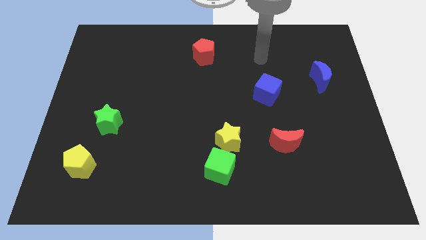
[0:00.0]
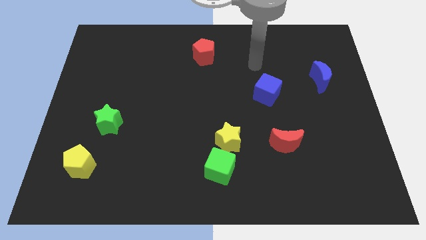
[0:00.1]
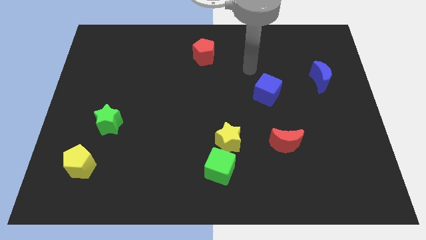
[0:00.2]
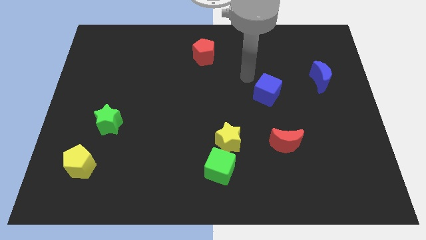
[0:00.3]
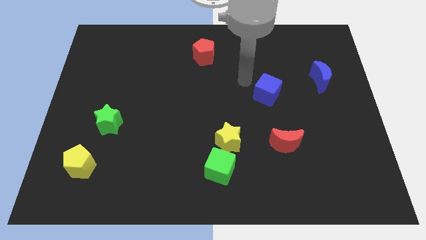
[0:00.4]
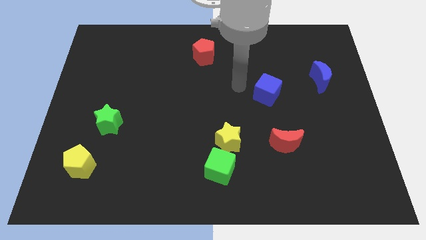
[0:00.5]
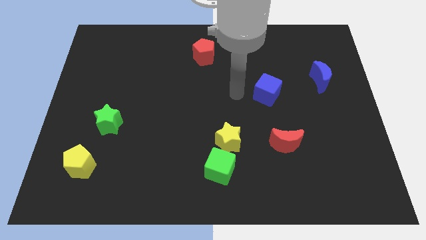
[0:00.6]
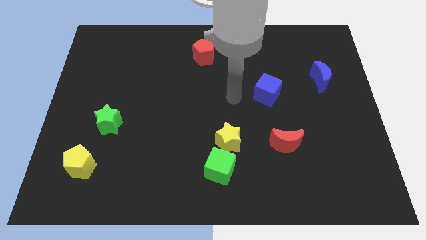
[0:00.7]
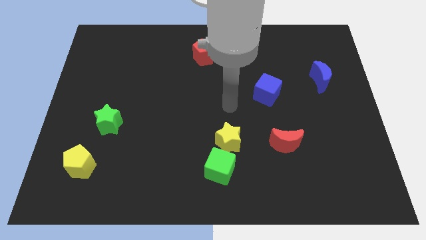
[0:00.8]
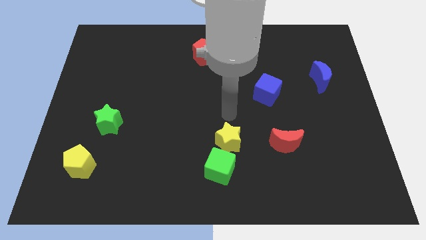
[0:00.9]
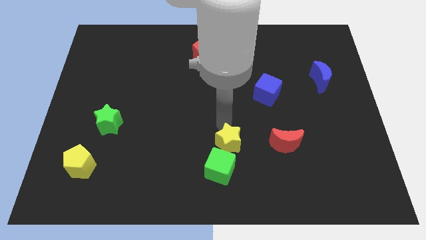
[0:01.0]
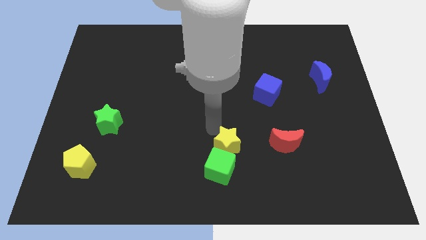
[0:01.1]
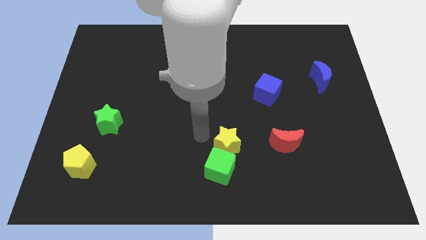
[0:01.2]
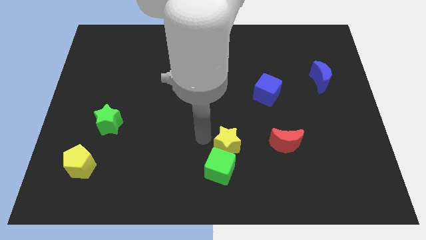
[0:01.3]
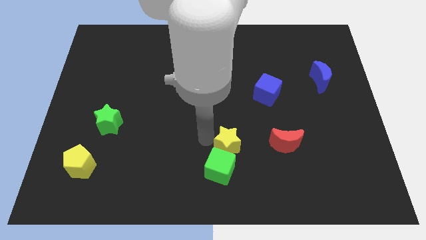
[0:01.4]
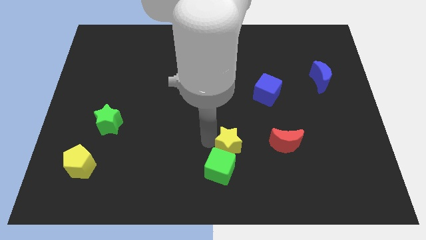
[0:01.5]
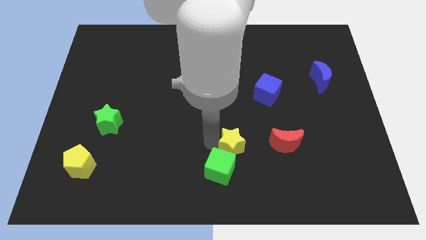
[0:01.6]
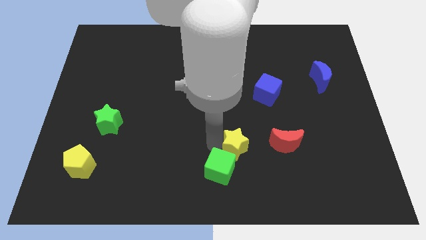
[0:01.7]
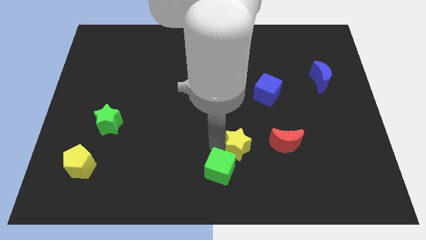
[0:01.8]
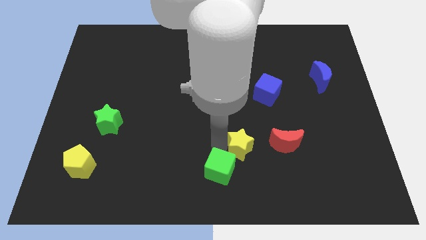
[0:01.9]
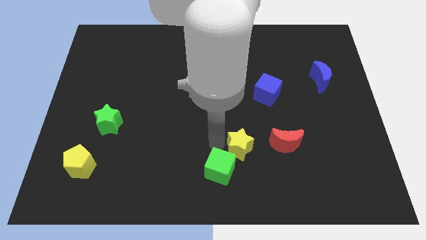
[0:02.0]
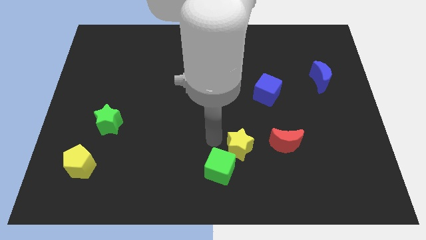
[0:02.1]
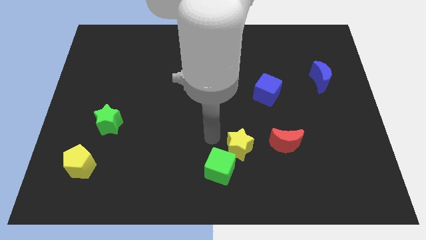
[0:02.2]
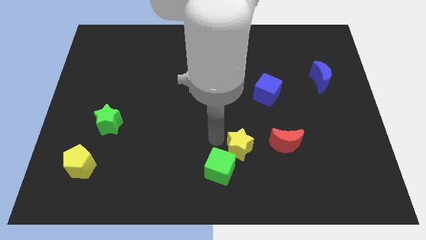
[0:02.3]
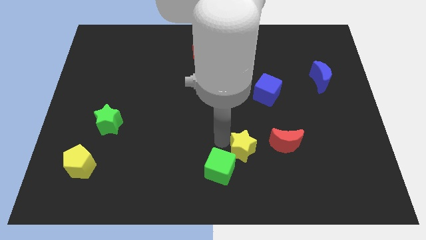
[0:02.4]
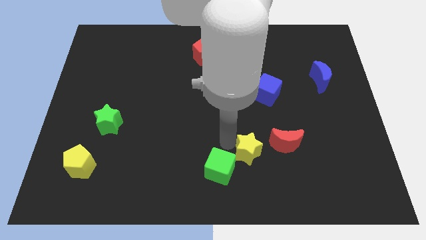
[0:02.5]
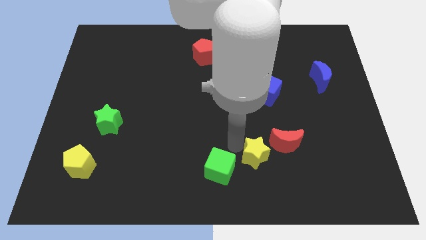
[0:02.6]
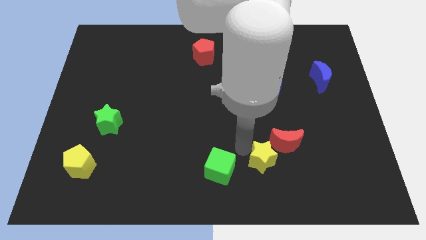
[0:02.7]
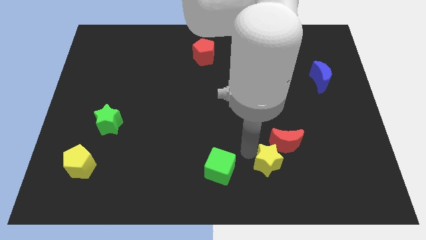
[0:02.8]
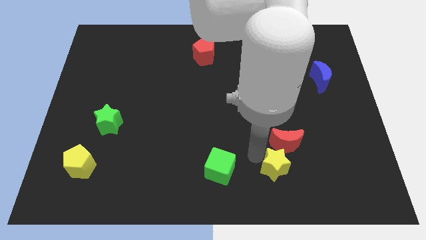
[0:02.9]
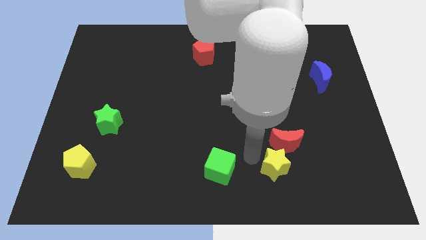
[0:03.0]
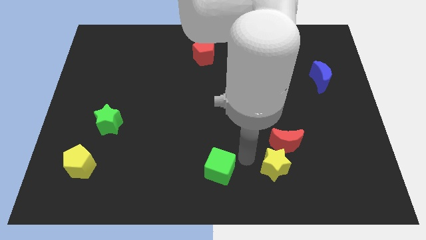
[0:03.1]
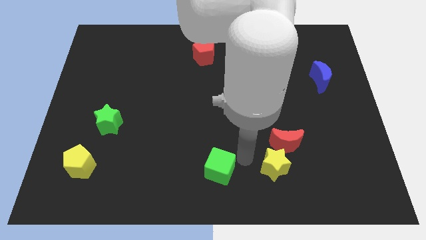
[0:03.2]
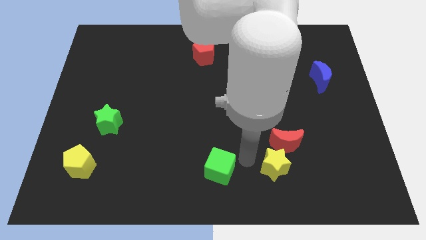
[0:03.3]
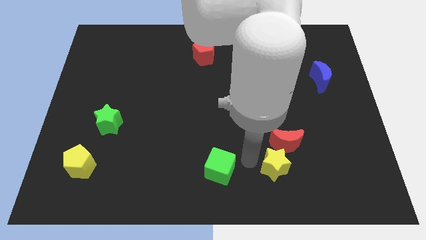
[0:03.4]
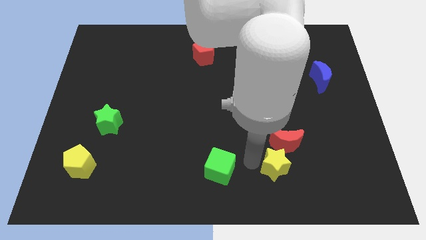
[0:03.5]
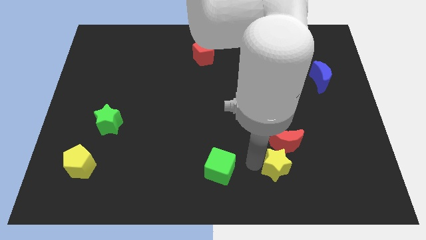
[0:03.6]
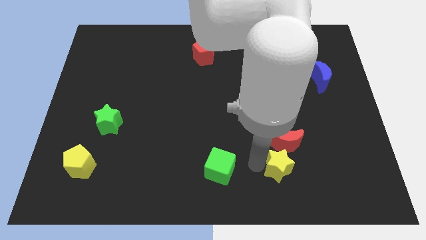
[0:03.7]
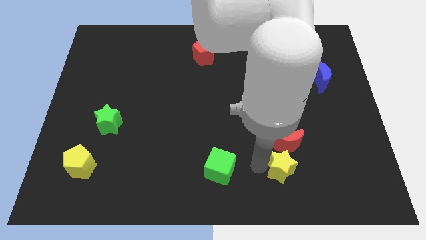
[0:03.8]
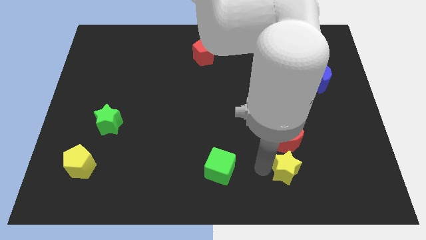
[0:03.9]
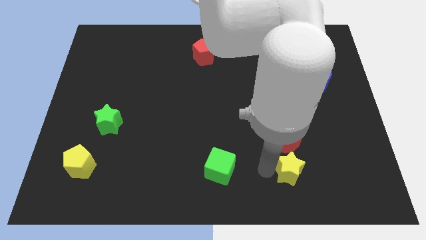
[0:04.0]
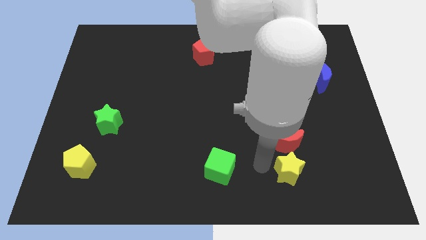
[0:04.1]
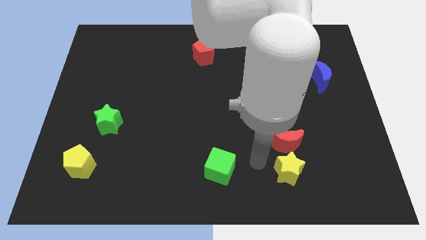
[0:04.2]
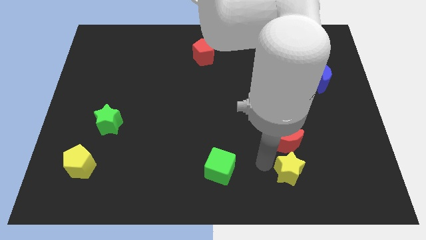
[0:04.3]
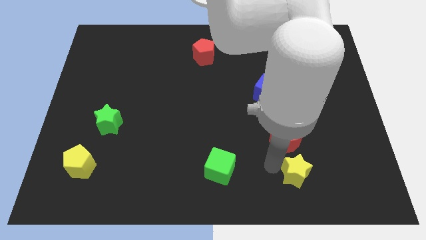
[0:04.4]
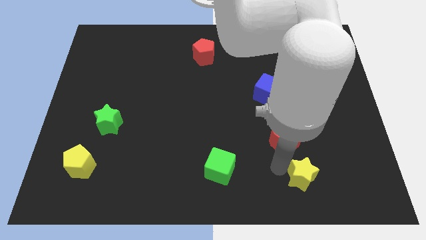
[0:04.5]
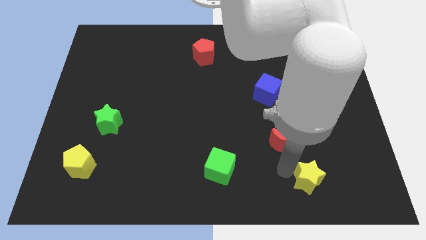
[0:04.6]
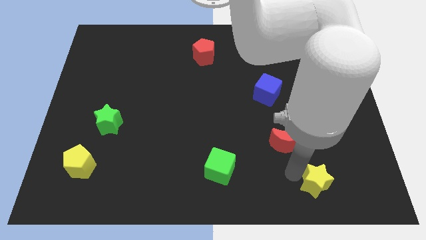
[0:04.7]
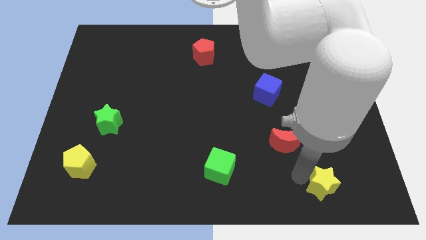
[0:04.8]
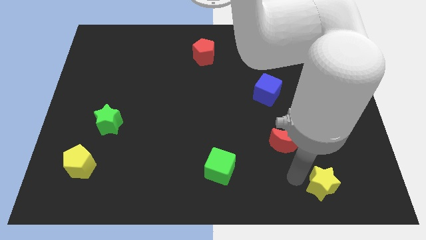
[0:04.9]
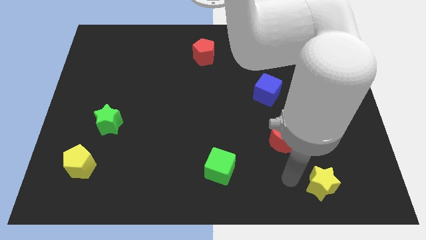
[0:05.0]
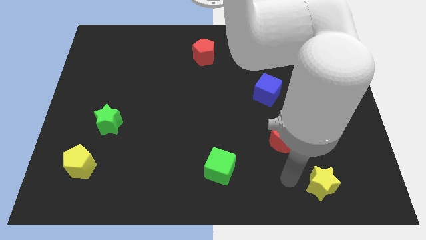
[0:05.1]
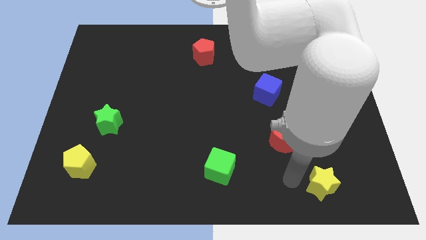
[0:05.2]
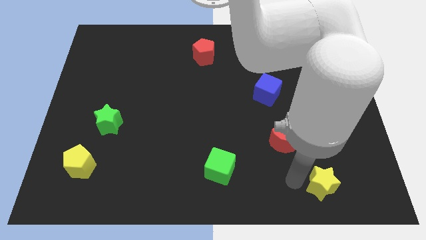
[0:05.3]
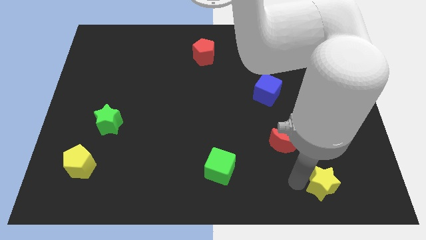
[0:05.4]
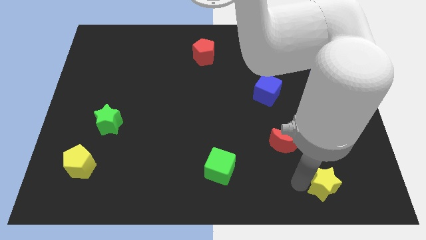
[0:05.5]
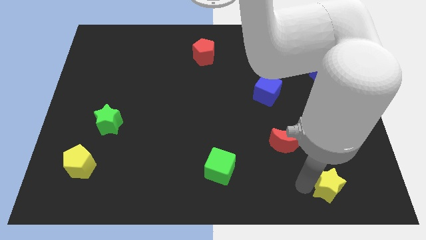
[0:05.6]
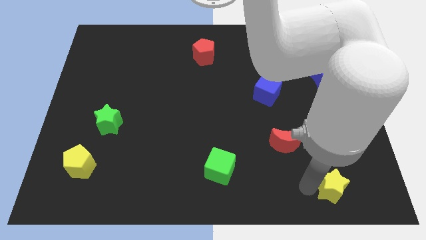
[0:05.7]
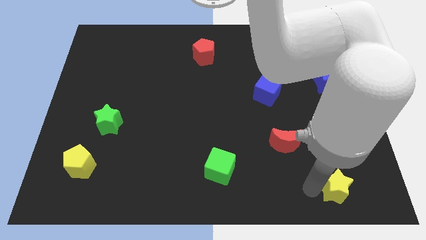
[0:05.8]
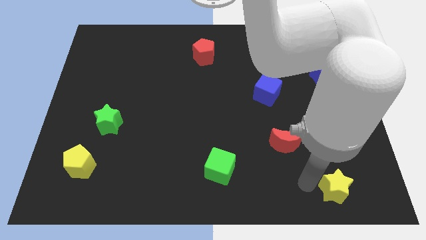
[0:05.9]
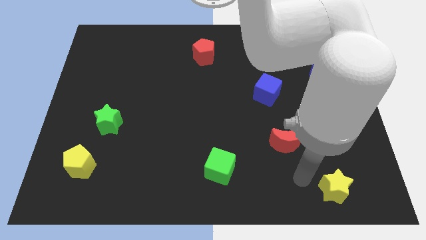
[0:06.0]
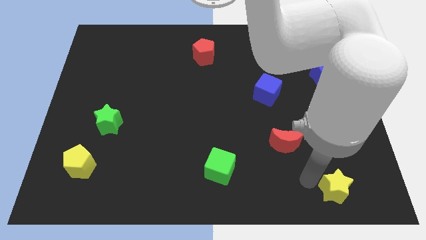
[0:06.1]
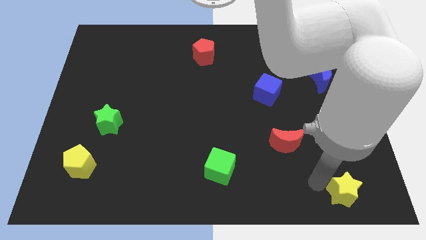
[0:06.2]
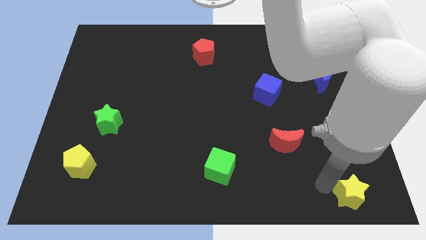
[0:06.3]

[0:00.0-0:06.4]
put the yellow star to the bottom right of the board
